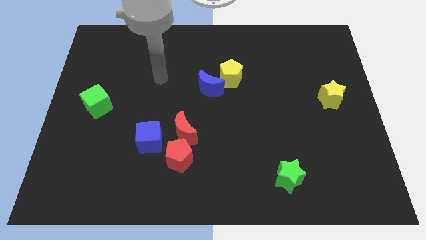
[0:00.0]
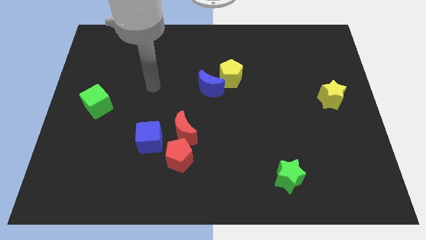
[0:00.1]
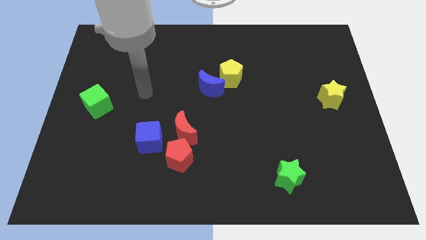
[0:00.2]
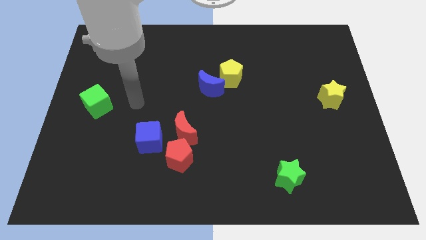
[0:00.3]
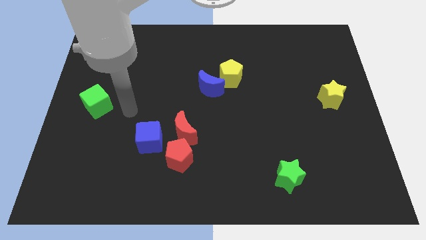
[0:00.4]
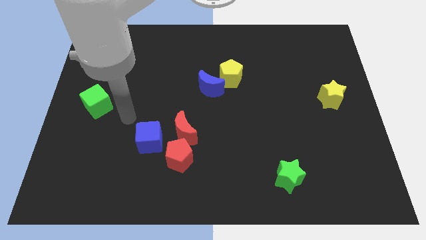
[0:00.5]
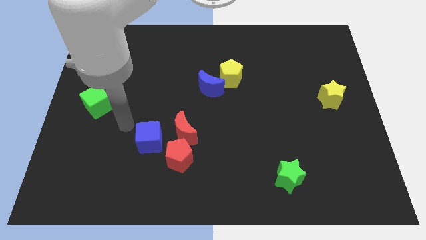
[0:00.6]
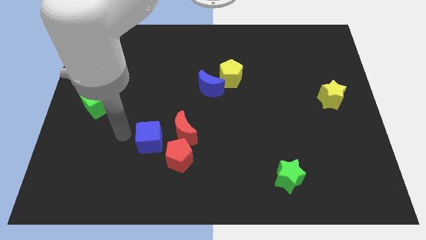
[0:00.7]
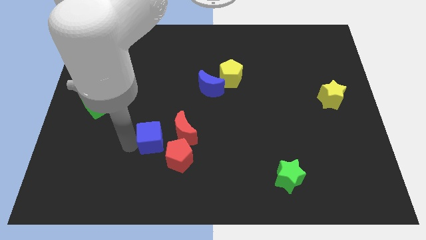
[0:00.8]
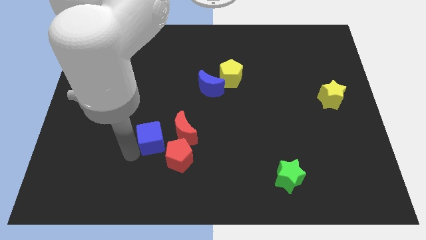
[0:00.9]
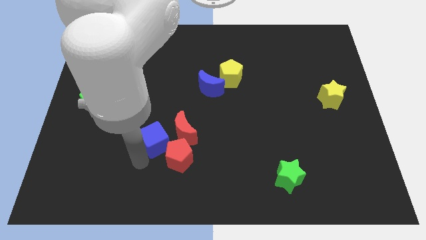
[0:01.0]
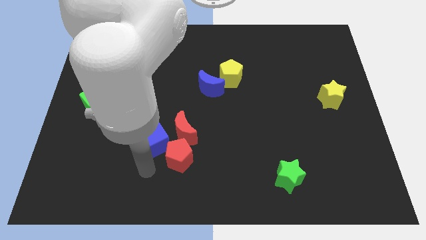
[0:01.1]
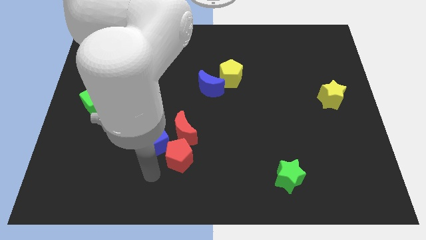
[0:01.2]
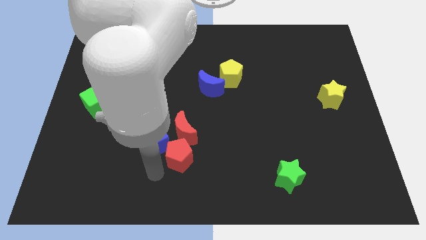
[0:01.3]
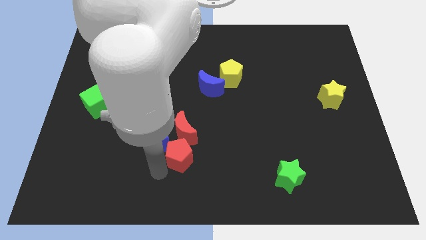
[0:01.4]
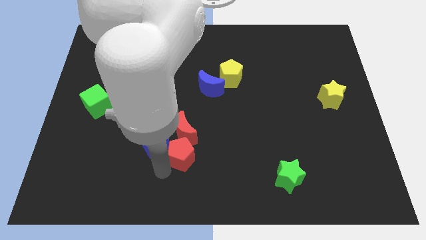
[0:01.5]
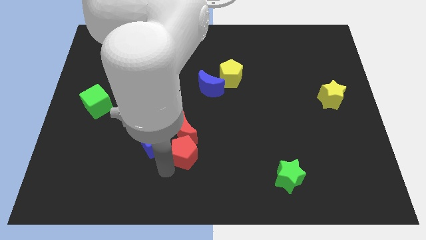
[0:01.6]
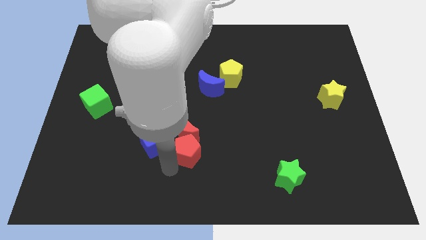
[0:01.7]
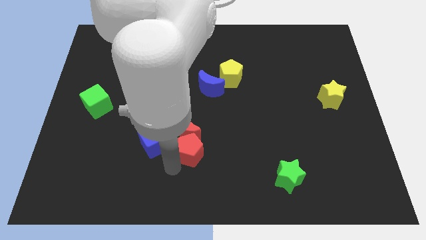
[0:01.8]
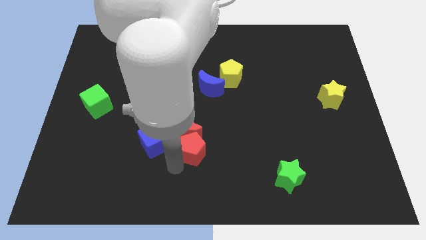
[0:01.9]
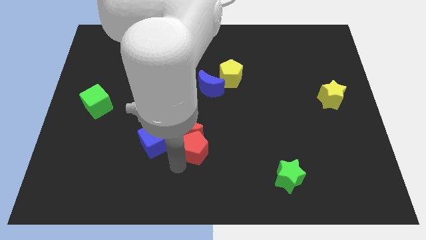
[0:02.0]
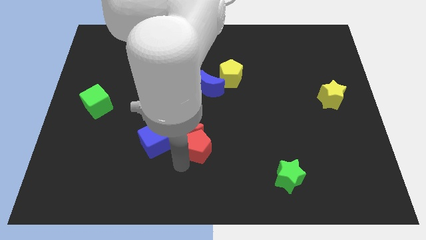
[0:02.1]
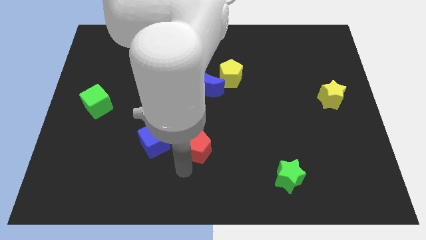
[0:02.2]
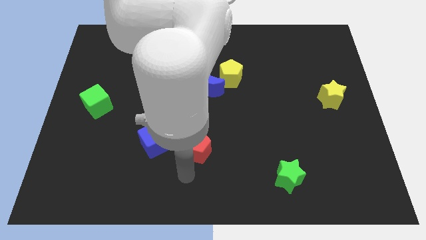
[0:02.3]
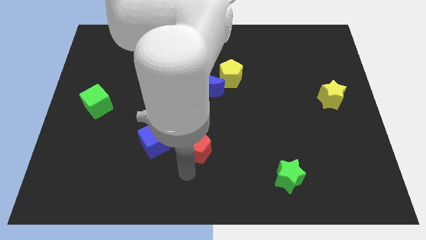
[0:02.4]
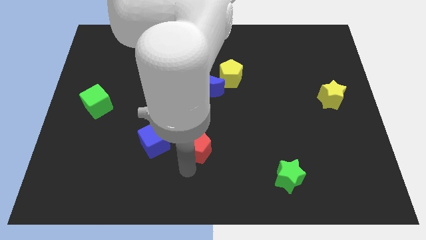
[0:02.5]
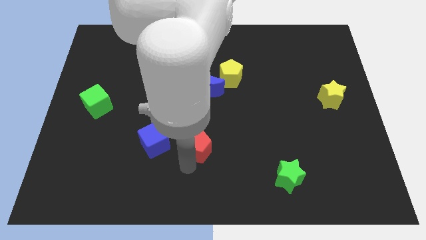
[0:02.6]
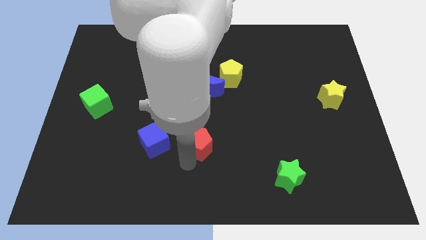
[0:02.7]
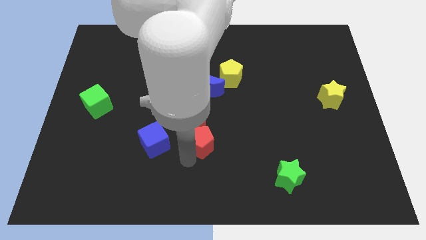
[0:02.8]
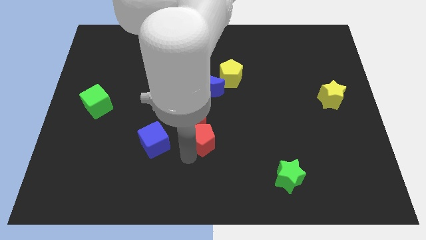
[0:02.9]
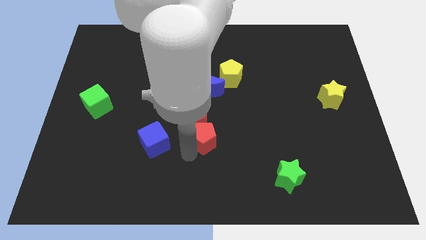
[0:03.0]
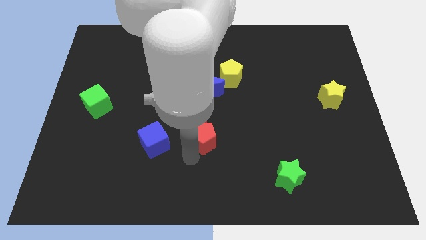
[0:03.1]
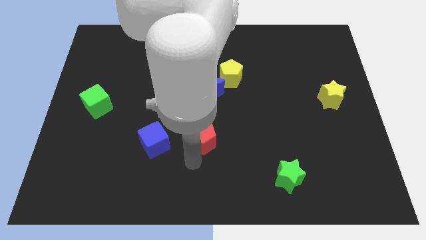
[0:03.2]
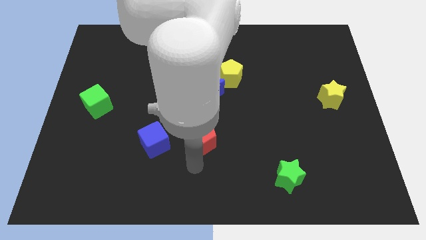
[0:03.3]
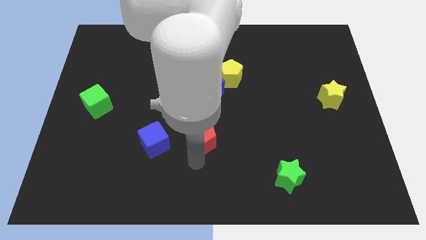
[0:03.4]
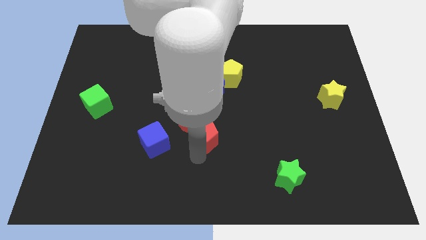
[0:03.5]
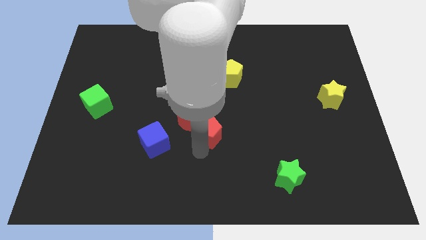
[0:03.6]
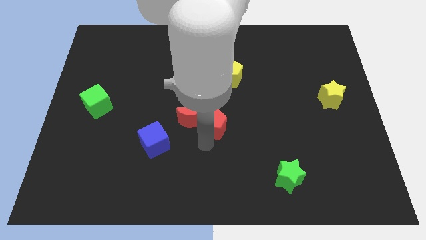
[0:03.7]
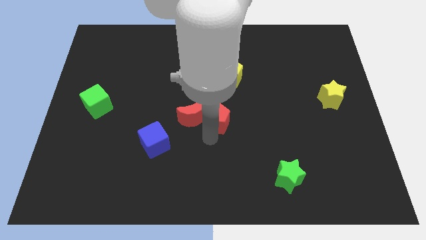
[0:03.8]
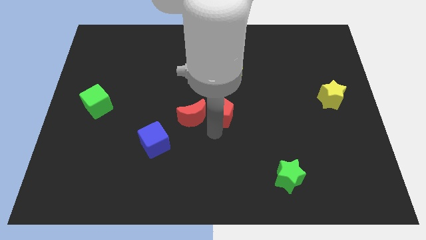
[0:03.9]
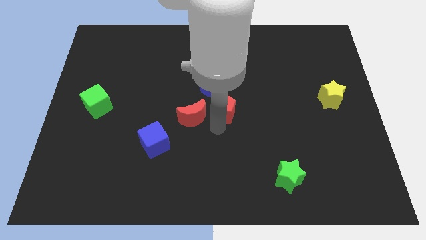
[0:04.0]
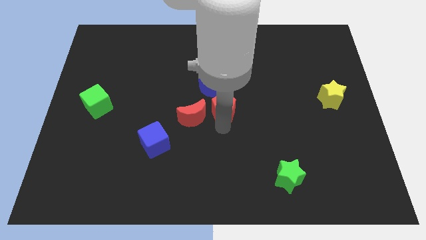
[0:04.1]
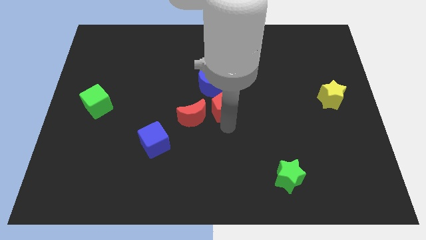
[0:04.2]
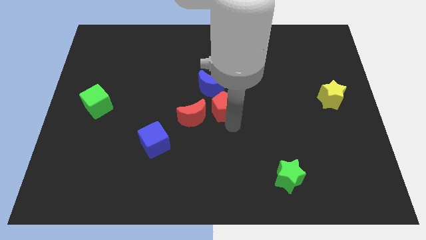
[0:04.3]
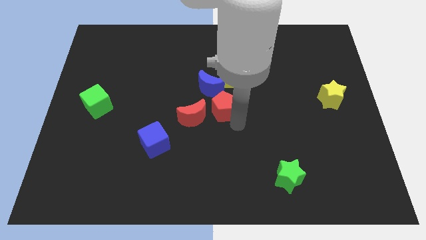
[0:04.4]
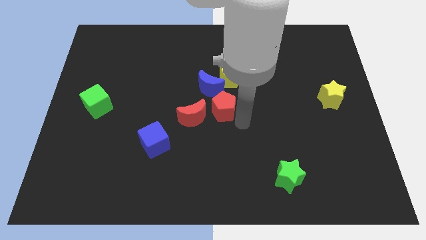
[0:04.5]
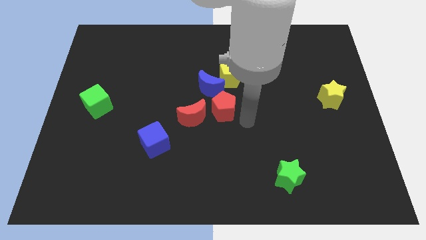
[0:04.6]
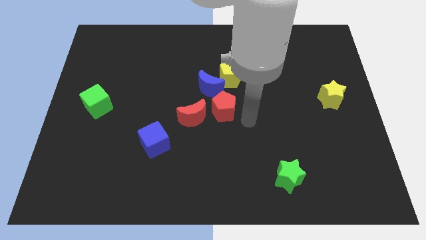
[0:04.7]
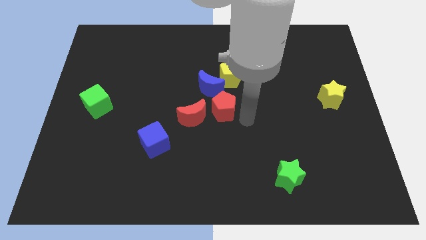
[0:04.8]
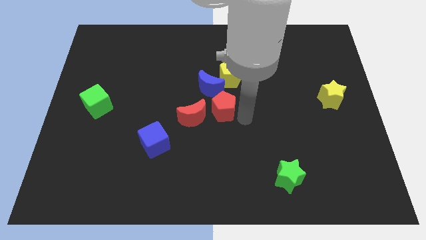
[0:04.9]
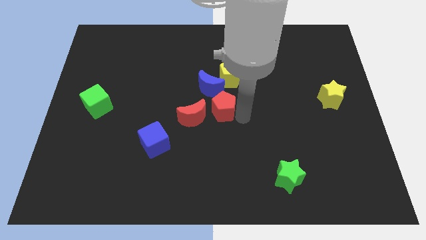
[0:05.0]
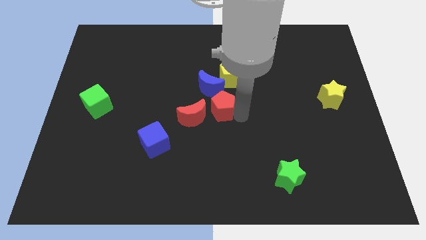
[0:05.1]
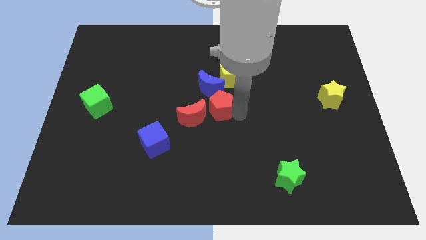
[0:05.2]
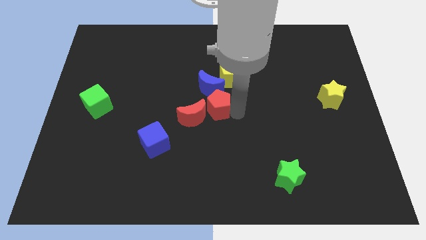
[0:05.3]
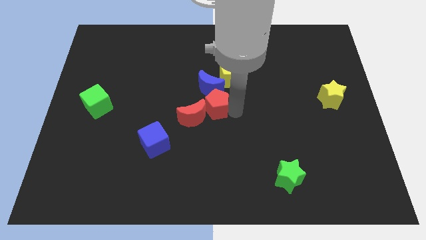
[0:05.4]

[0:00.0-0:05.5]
slide the red pentagon towards the blue moon

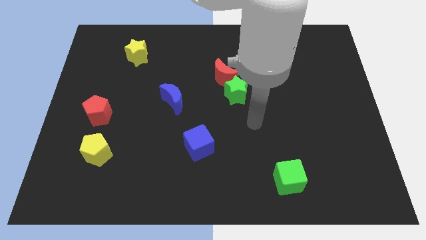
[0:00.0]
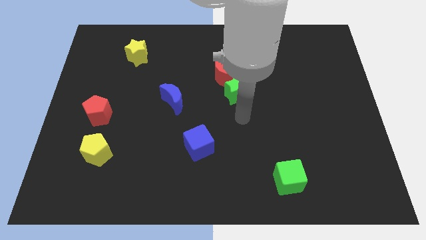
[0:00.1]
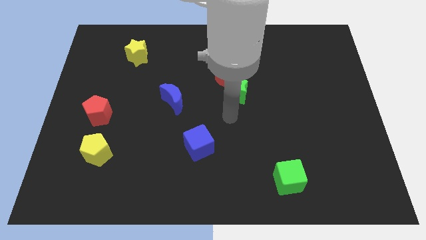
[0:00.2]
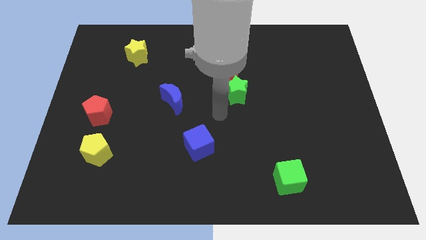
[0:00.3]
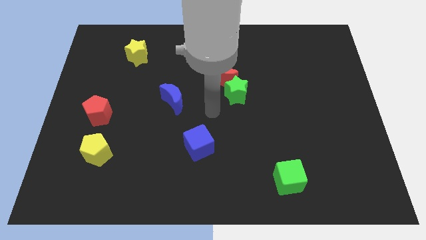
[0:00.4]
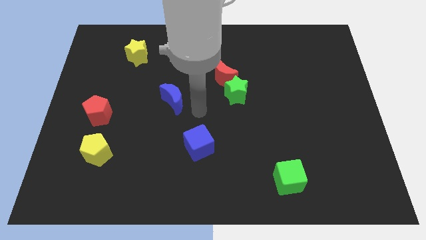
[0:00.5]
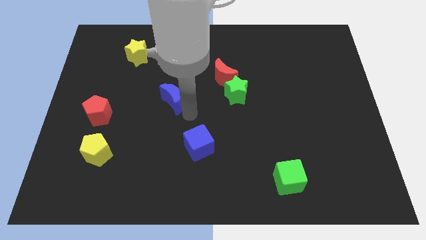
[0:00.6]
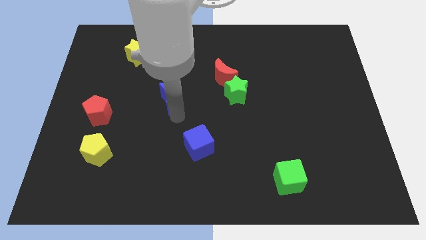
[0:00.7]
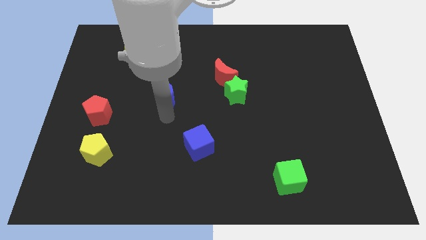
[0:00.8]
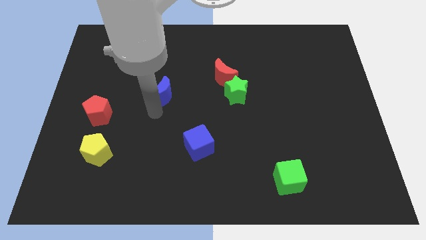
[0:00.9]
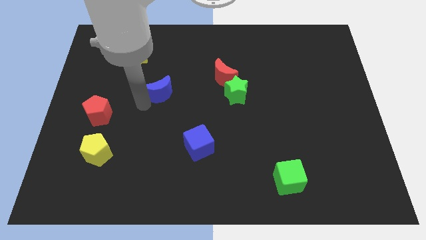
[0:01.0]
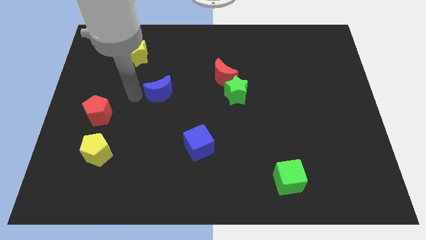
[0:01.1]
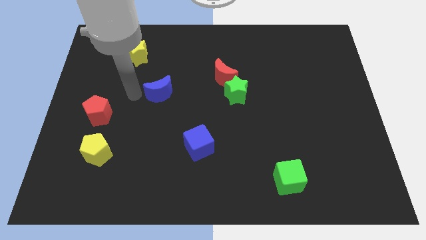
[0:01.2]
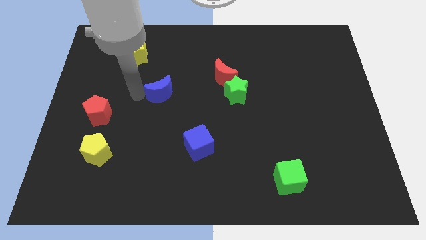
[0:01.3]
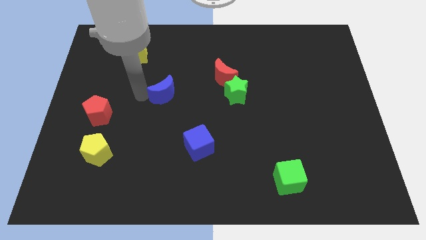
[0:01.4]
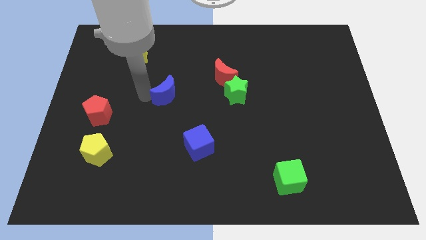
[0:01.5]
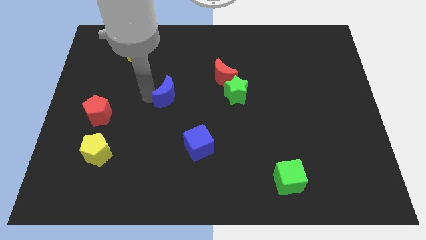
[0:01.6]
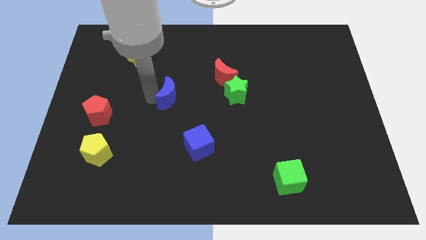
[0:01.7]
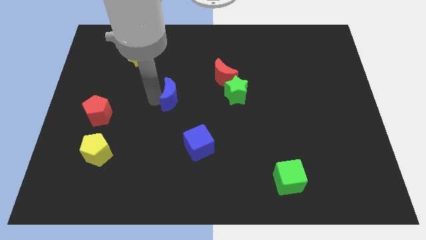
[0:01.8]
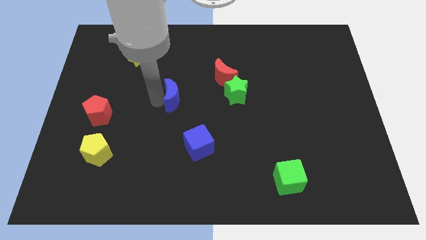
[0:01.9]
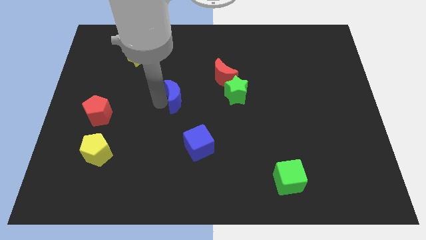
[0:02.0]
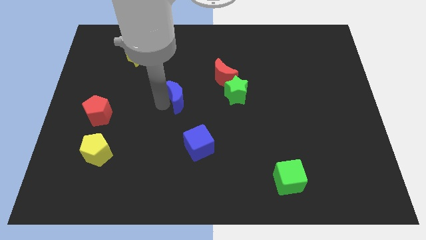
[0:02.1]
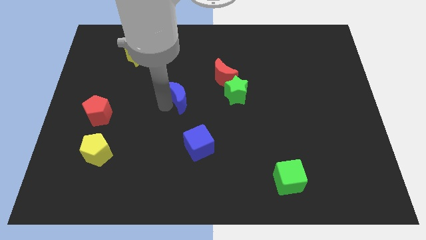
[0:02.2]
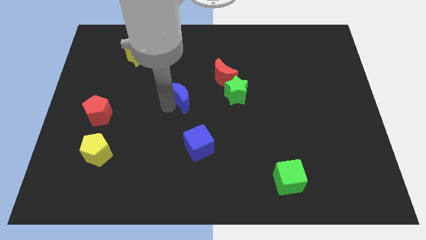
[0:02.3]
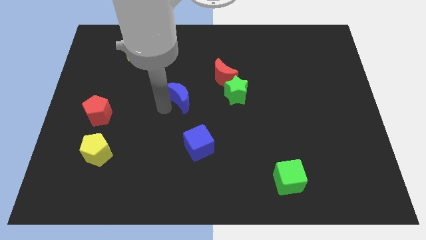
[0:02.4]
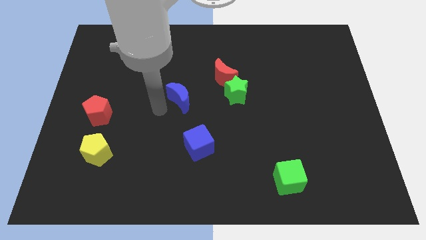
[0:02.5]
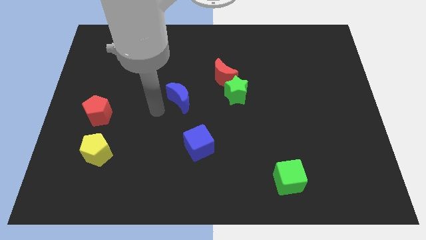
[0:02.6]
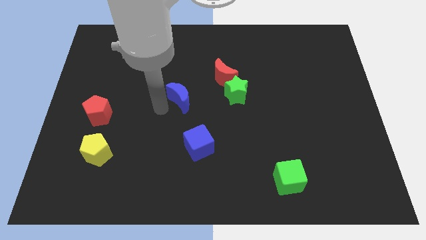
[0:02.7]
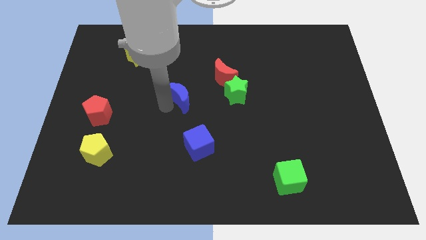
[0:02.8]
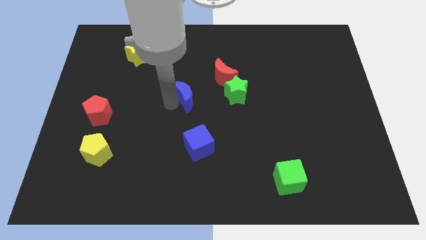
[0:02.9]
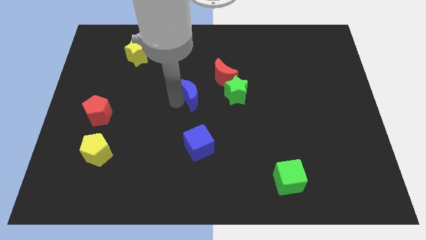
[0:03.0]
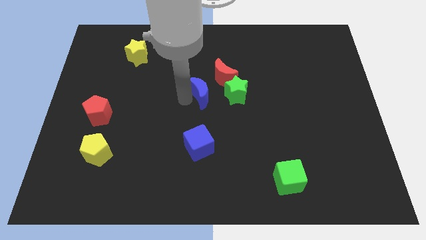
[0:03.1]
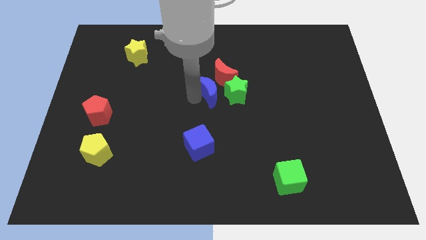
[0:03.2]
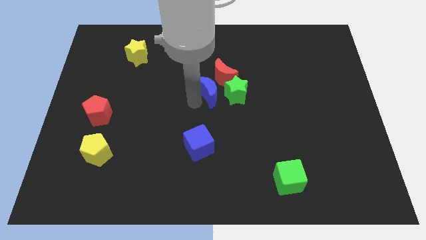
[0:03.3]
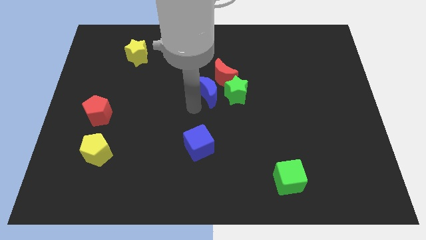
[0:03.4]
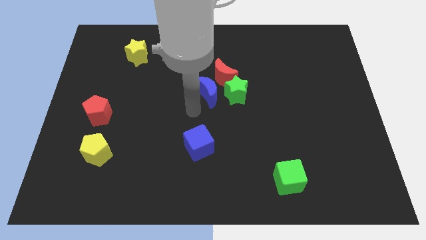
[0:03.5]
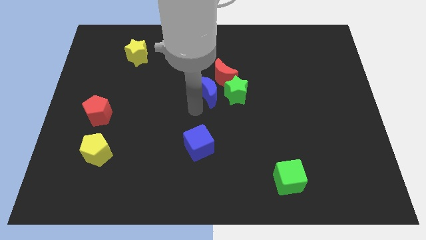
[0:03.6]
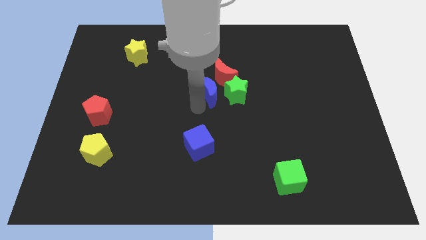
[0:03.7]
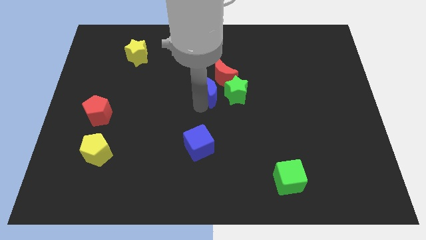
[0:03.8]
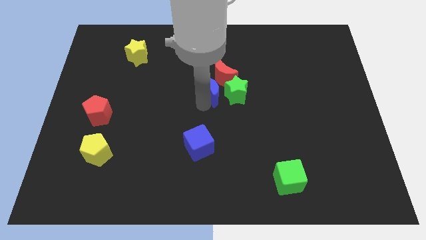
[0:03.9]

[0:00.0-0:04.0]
push the blue moon to the red moon
